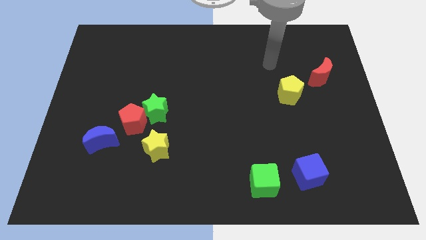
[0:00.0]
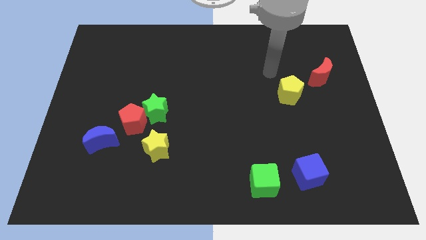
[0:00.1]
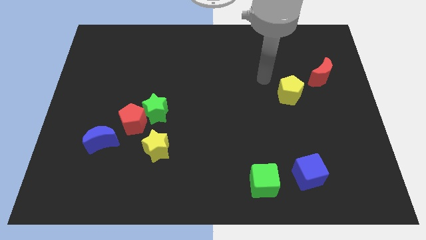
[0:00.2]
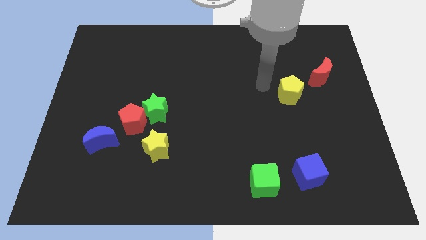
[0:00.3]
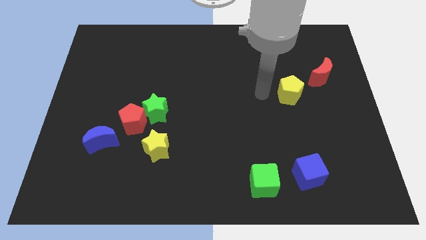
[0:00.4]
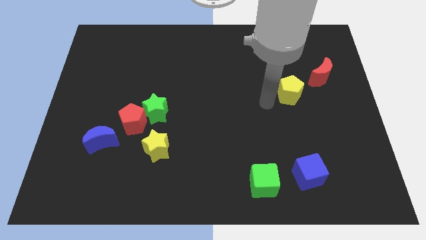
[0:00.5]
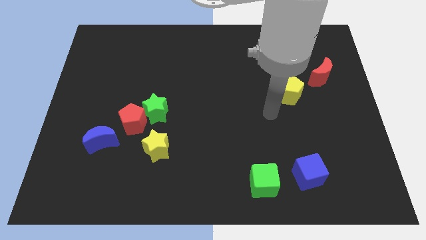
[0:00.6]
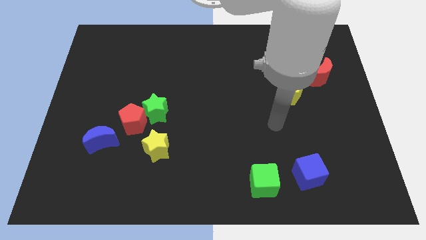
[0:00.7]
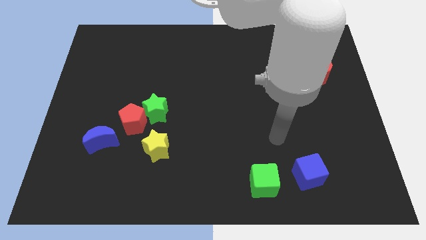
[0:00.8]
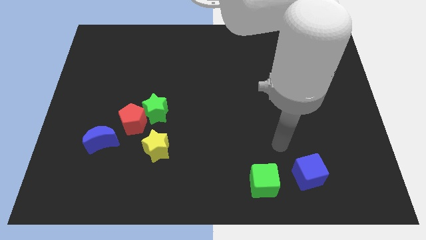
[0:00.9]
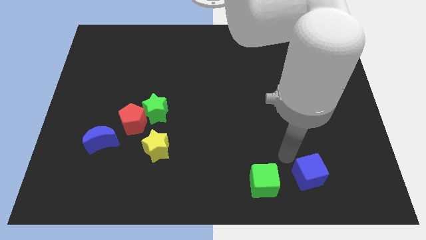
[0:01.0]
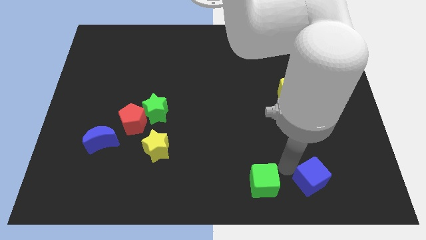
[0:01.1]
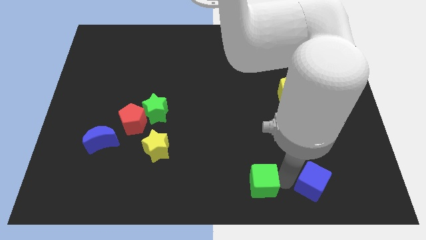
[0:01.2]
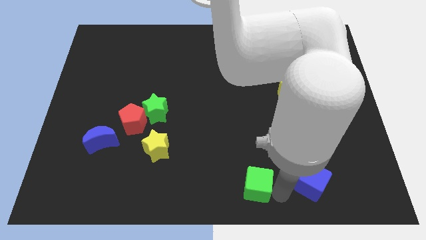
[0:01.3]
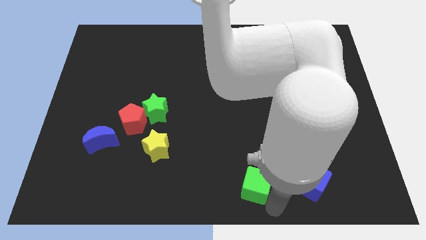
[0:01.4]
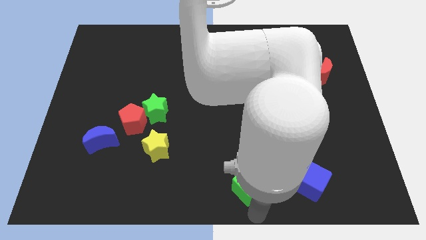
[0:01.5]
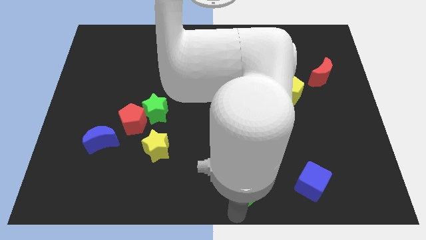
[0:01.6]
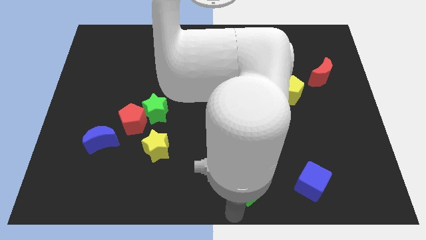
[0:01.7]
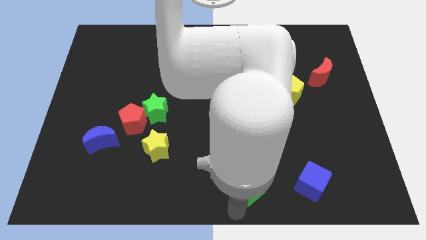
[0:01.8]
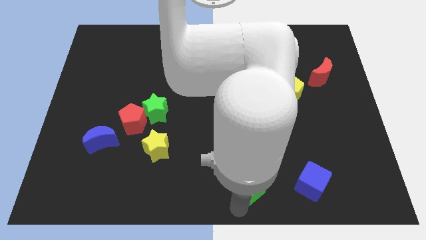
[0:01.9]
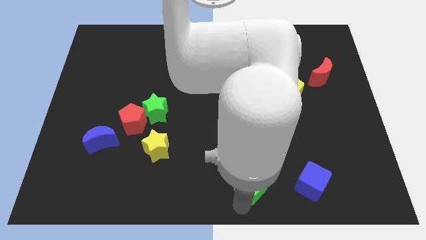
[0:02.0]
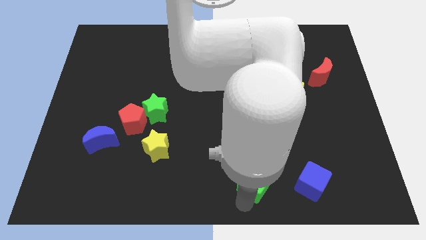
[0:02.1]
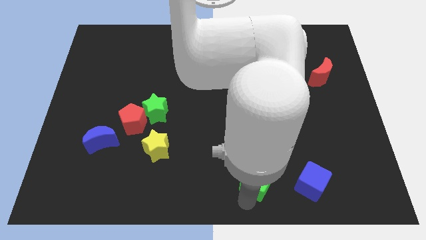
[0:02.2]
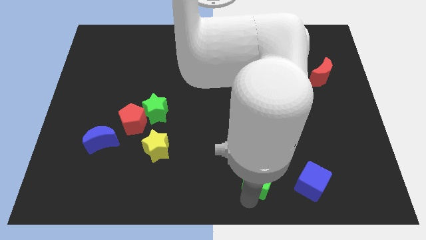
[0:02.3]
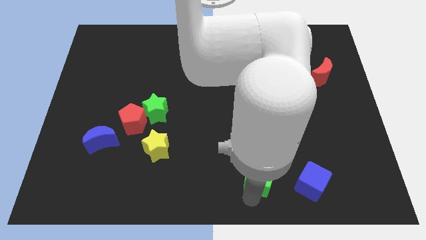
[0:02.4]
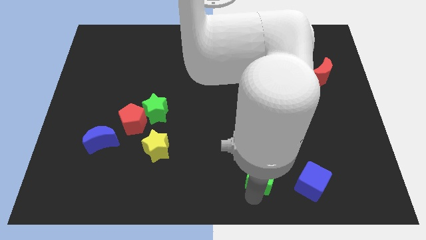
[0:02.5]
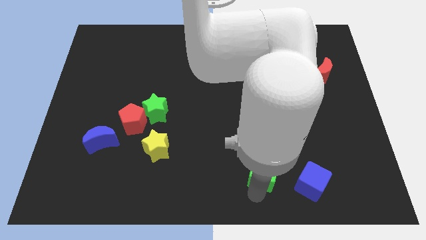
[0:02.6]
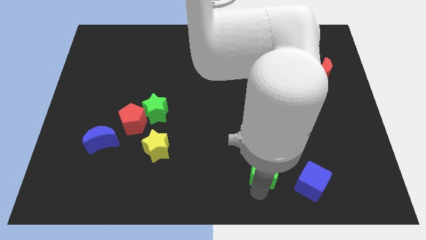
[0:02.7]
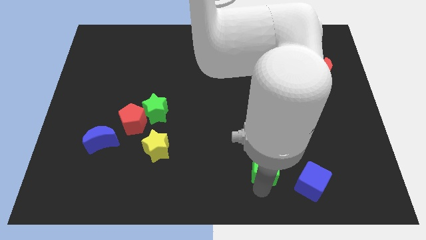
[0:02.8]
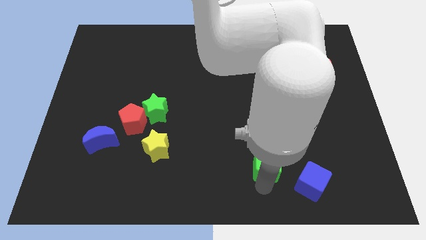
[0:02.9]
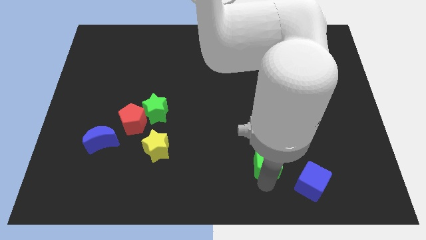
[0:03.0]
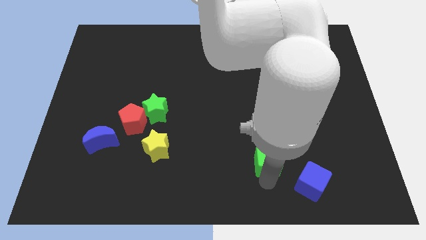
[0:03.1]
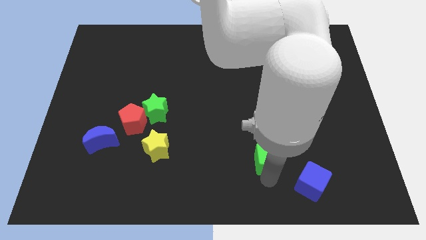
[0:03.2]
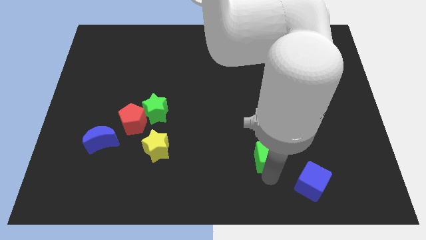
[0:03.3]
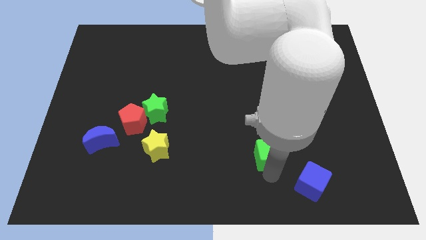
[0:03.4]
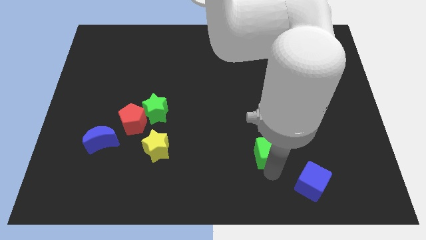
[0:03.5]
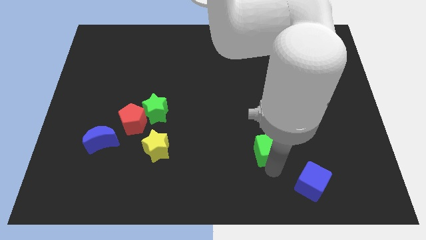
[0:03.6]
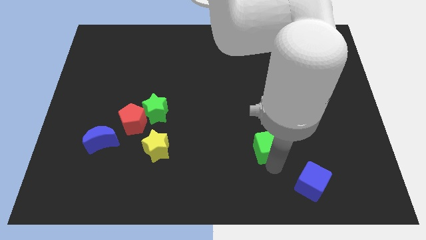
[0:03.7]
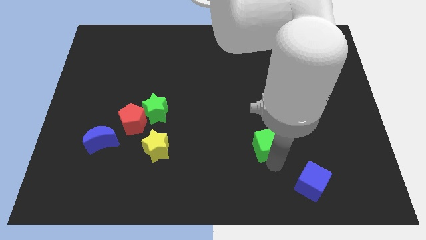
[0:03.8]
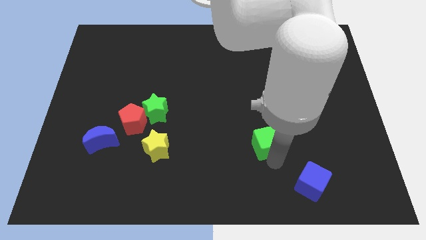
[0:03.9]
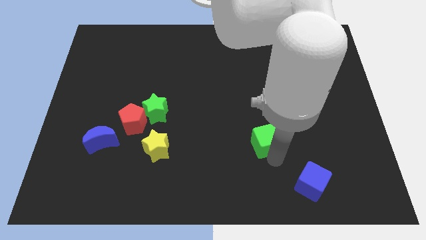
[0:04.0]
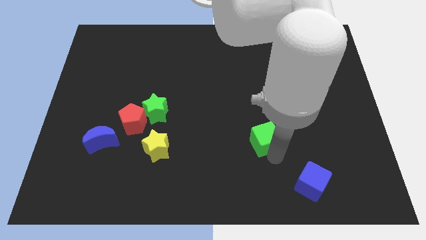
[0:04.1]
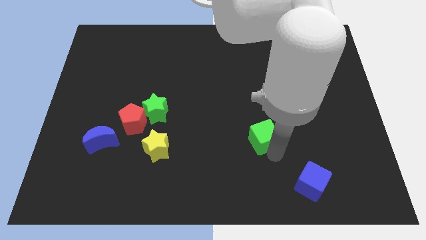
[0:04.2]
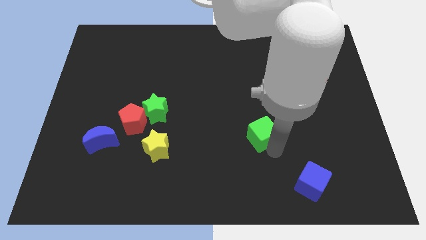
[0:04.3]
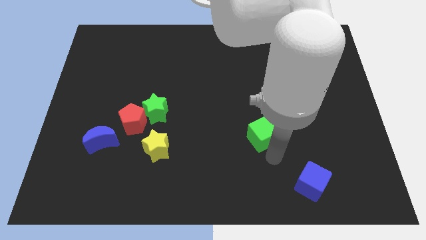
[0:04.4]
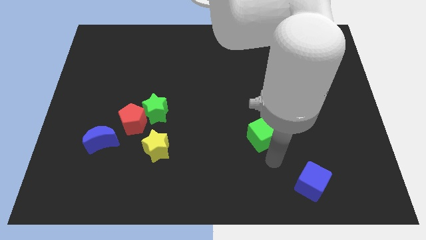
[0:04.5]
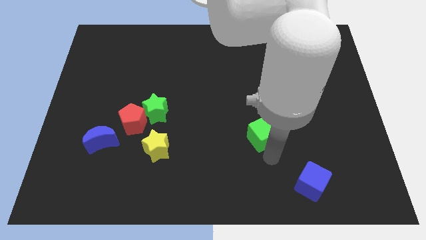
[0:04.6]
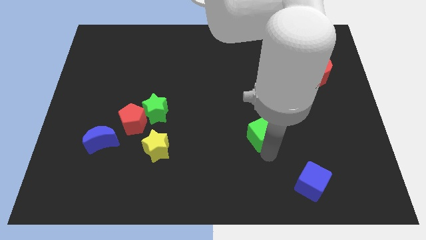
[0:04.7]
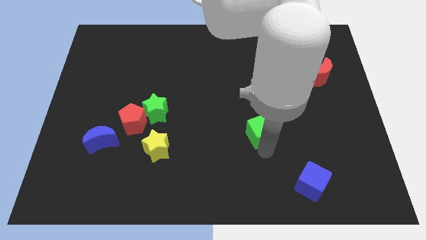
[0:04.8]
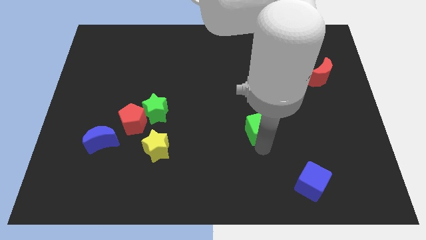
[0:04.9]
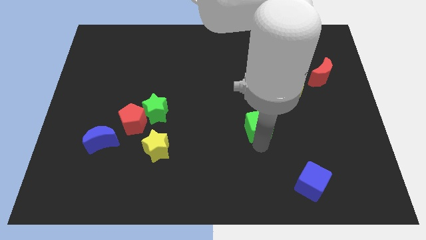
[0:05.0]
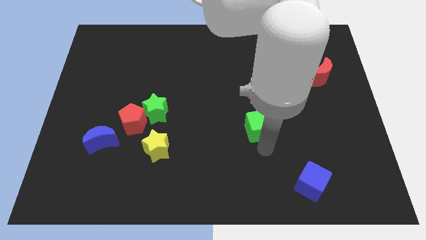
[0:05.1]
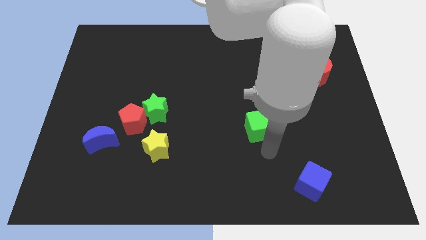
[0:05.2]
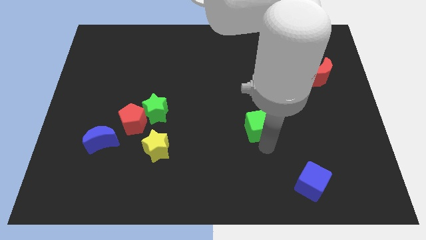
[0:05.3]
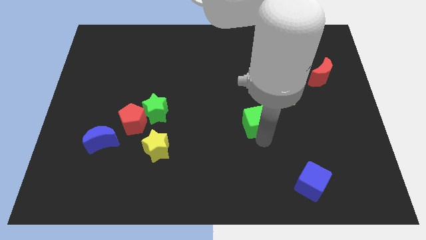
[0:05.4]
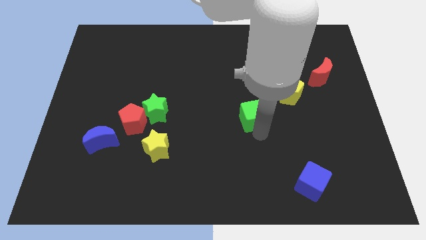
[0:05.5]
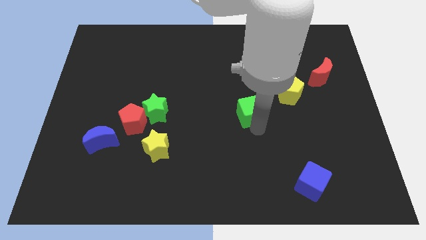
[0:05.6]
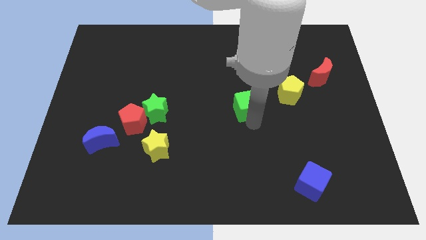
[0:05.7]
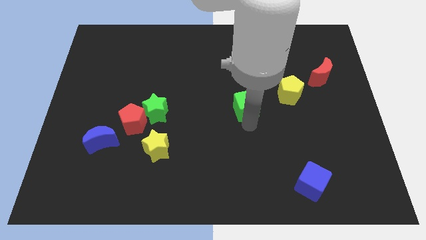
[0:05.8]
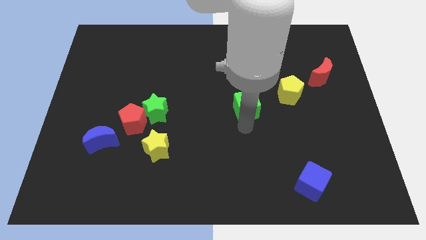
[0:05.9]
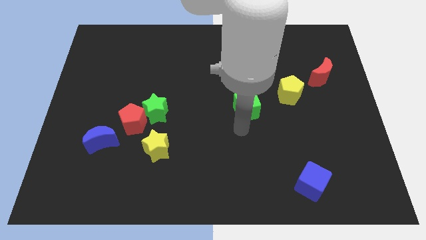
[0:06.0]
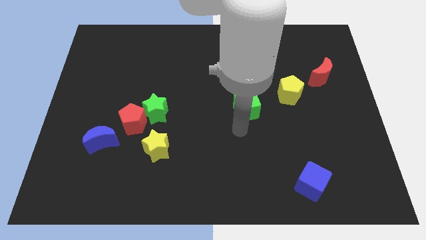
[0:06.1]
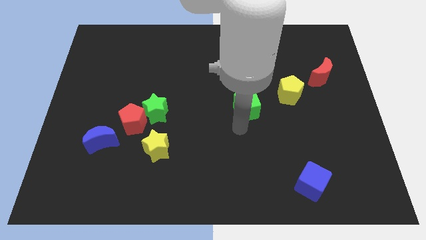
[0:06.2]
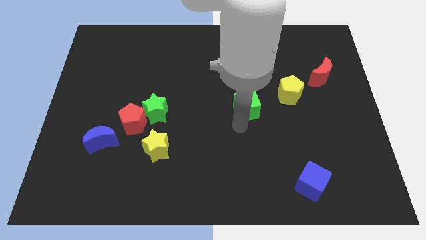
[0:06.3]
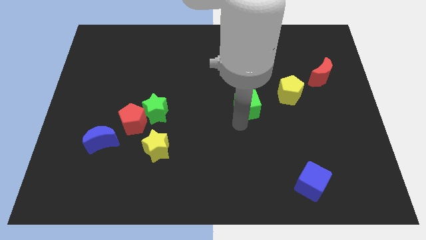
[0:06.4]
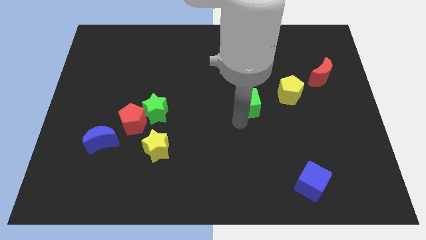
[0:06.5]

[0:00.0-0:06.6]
slide the green cube up

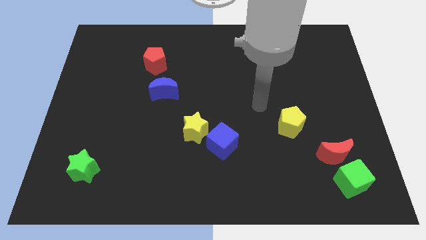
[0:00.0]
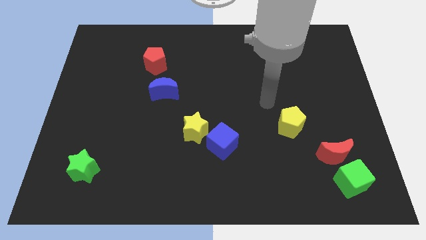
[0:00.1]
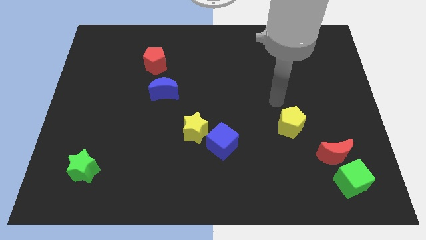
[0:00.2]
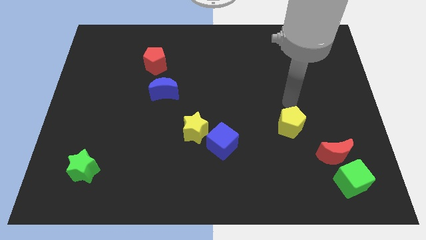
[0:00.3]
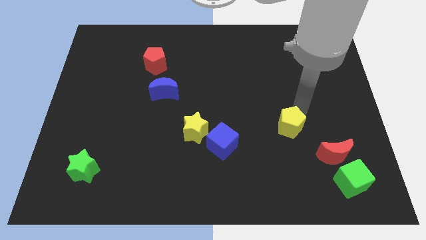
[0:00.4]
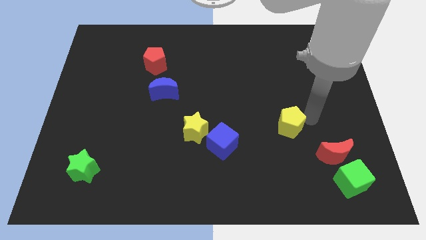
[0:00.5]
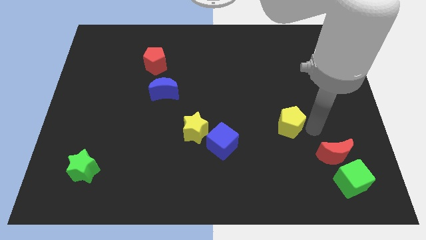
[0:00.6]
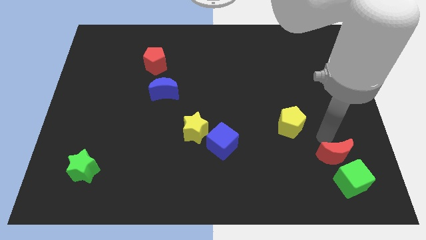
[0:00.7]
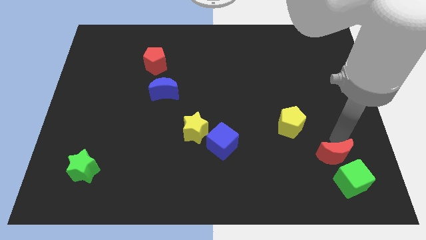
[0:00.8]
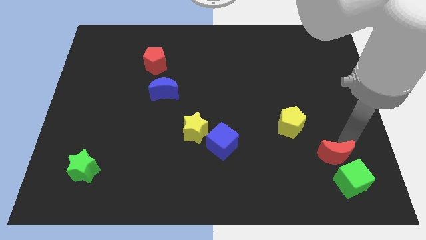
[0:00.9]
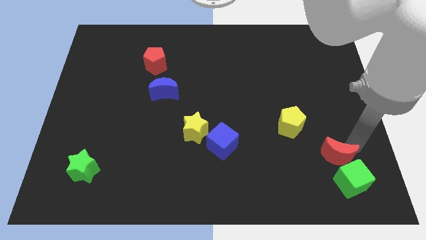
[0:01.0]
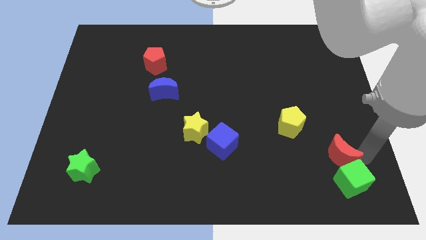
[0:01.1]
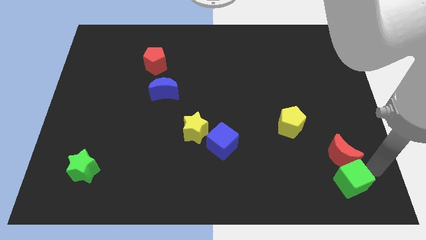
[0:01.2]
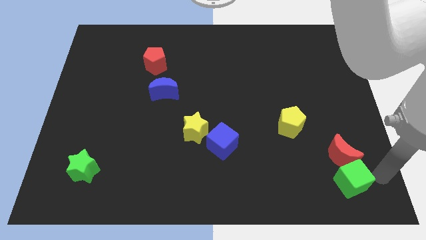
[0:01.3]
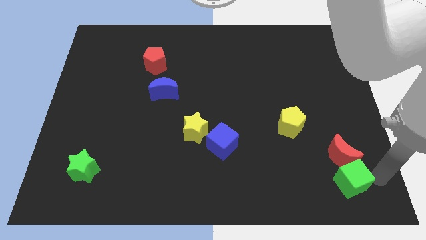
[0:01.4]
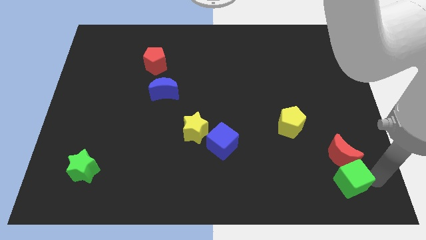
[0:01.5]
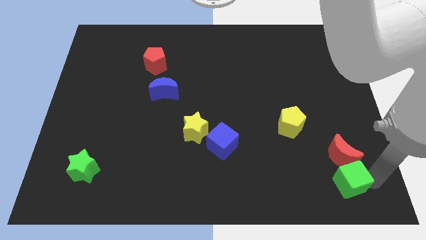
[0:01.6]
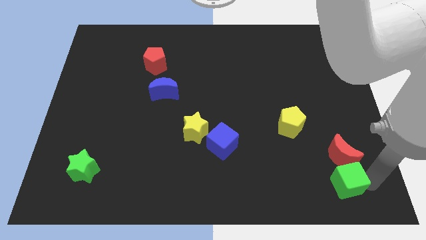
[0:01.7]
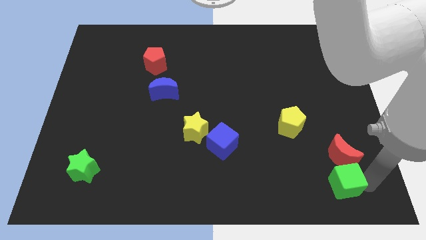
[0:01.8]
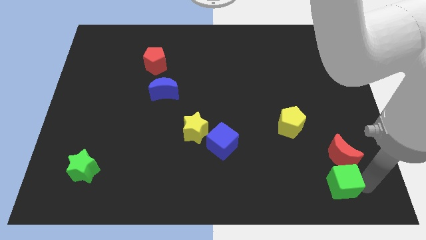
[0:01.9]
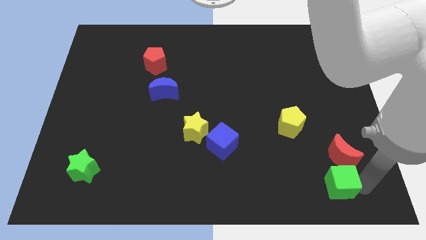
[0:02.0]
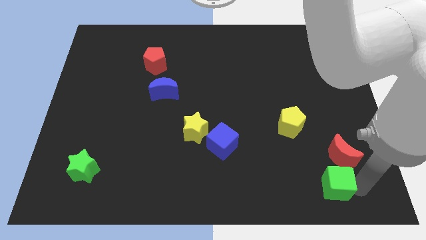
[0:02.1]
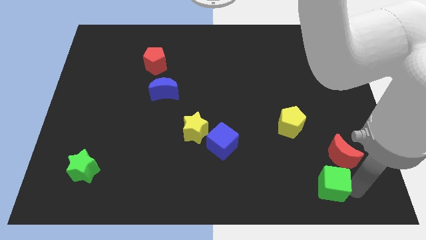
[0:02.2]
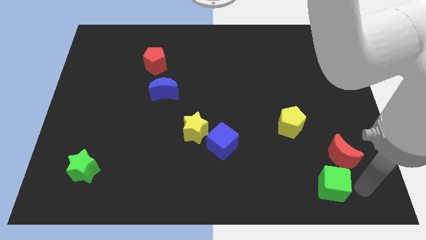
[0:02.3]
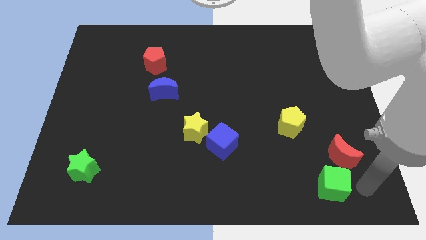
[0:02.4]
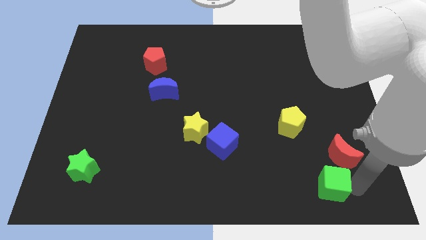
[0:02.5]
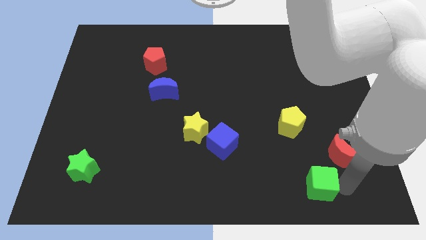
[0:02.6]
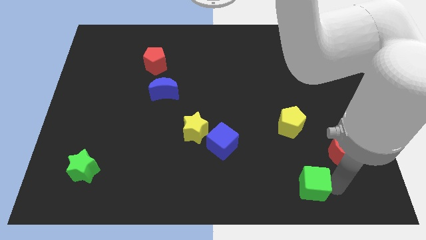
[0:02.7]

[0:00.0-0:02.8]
move the green cube left a bit
